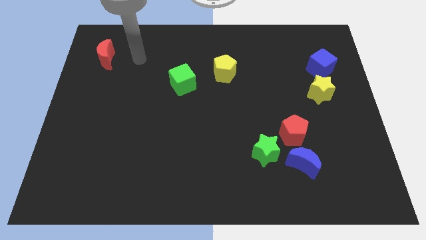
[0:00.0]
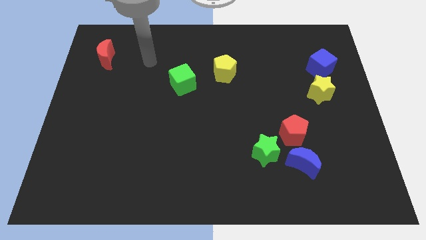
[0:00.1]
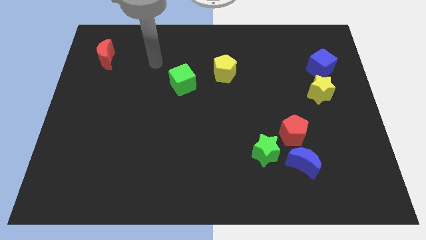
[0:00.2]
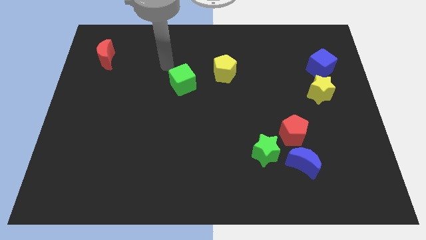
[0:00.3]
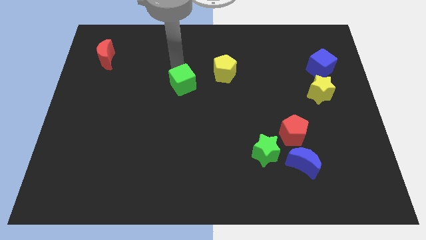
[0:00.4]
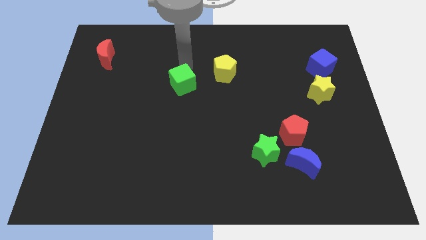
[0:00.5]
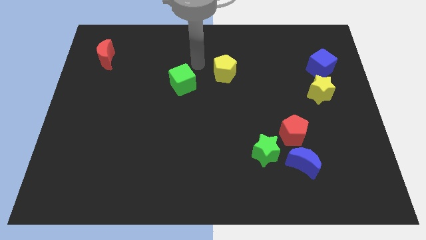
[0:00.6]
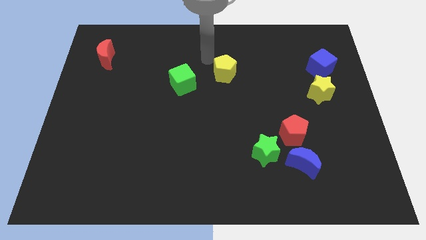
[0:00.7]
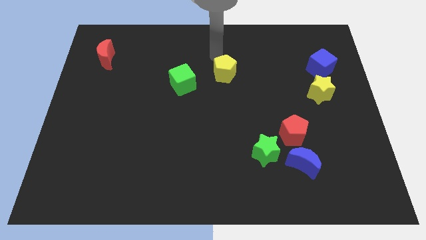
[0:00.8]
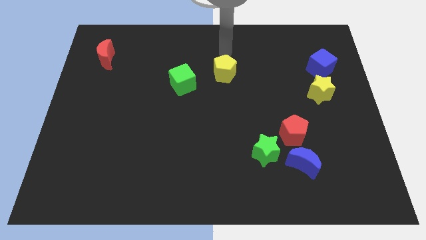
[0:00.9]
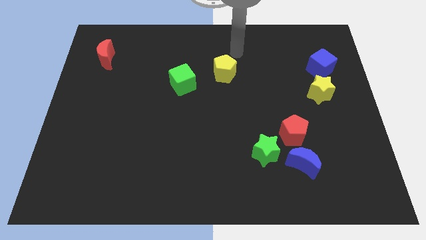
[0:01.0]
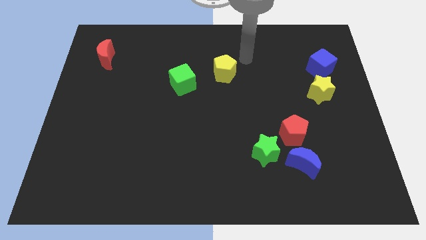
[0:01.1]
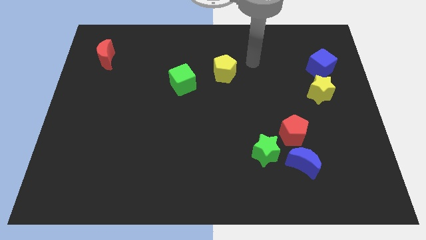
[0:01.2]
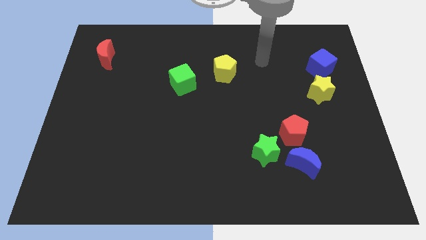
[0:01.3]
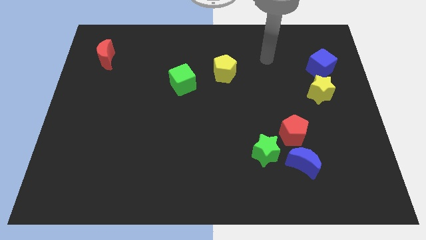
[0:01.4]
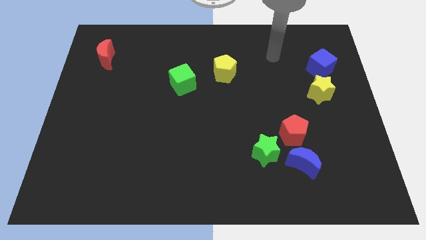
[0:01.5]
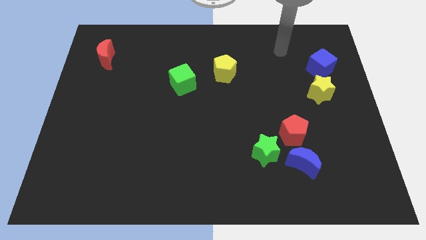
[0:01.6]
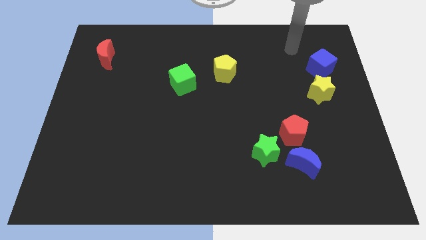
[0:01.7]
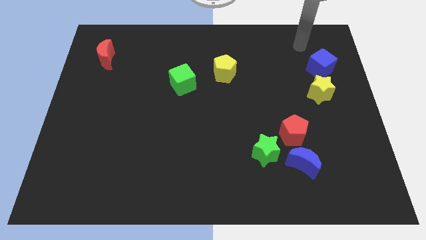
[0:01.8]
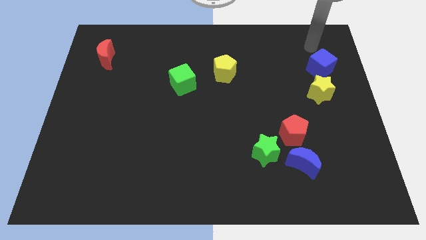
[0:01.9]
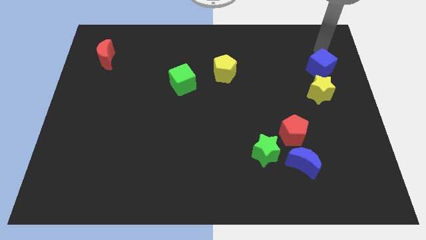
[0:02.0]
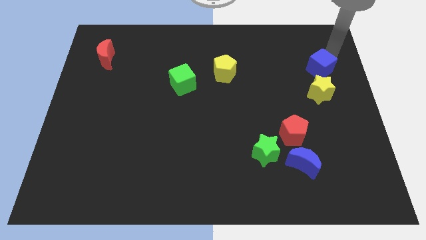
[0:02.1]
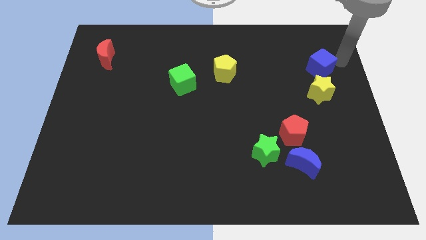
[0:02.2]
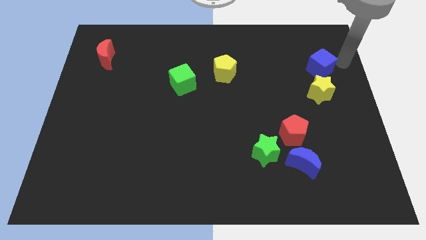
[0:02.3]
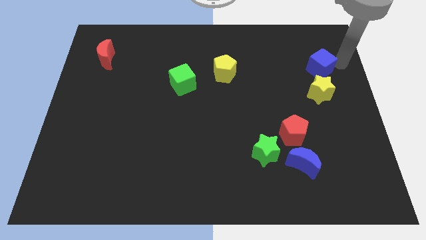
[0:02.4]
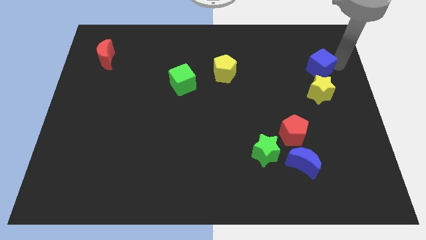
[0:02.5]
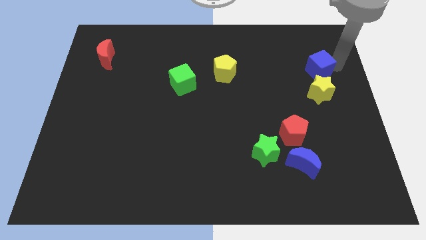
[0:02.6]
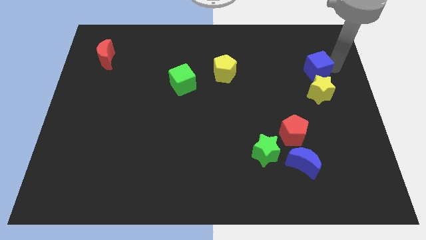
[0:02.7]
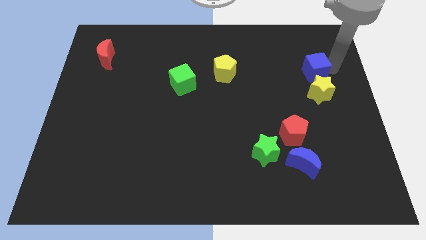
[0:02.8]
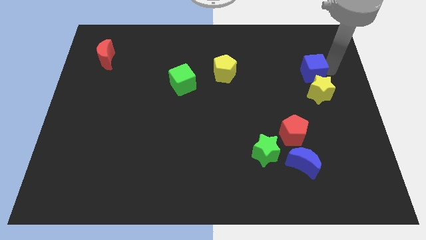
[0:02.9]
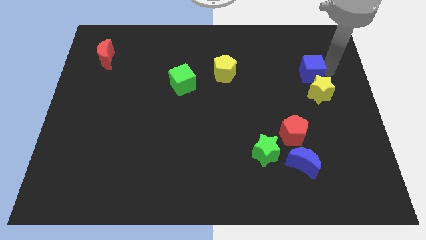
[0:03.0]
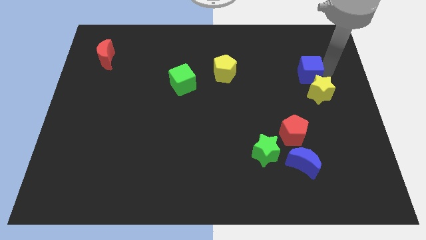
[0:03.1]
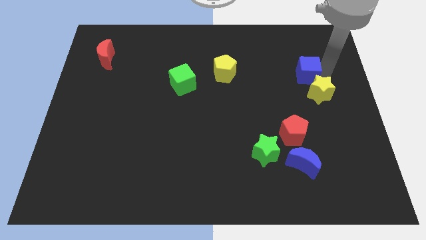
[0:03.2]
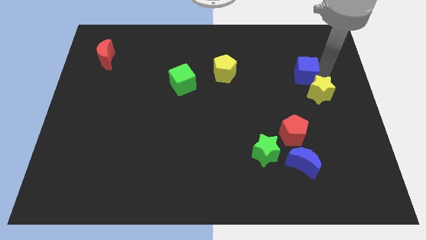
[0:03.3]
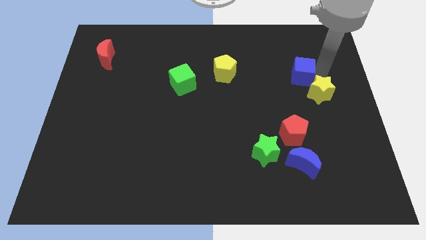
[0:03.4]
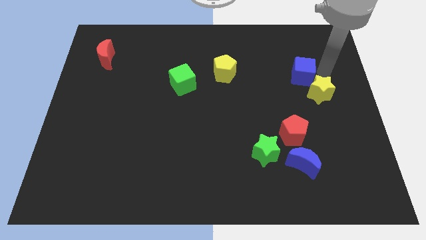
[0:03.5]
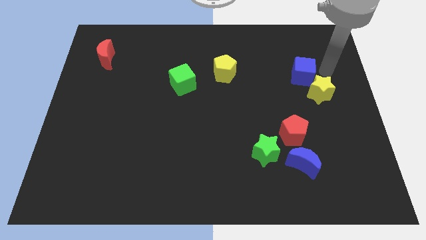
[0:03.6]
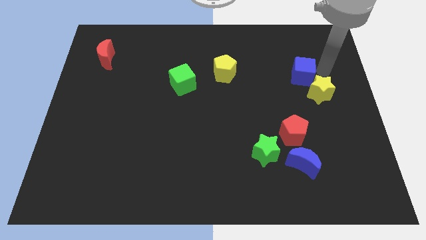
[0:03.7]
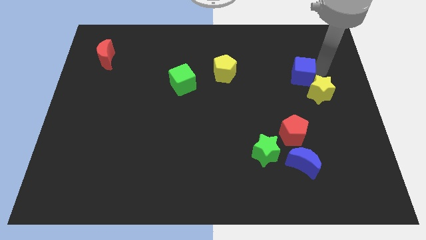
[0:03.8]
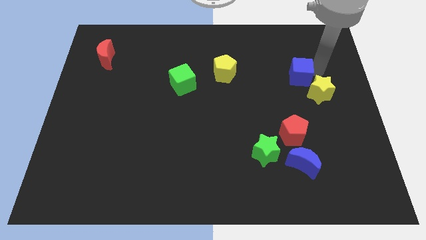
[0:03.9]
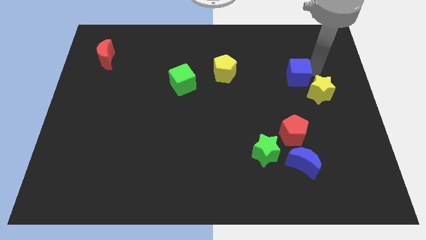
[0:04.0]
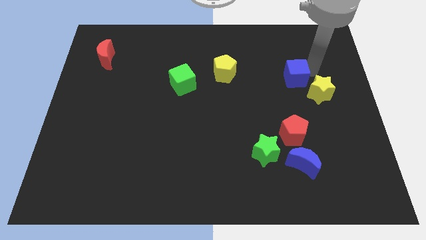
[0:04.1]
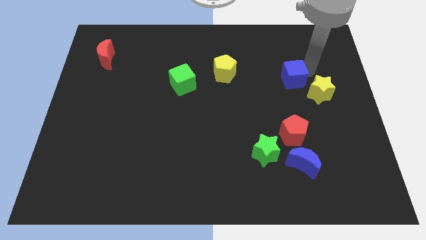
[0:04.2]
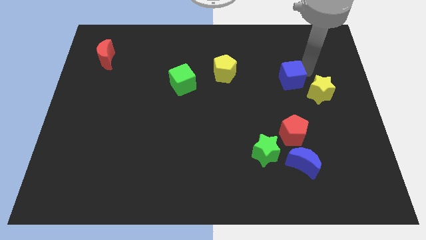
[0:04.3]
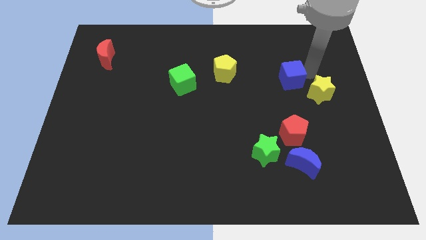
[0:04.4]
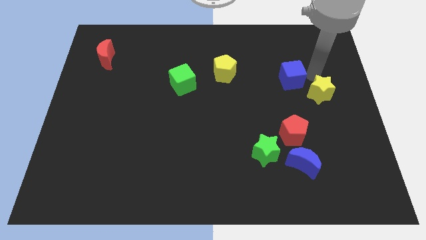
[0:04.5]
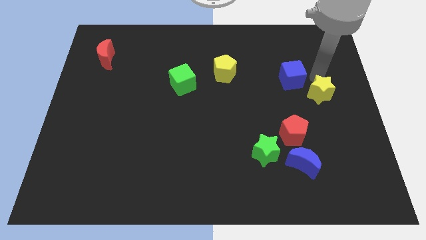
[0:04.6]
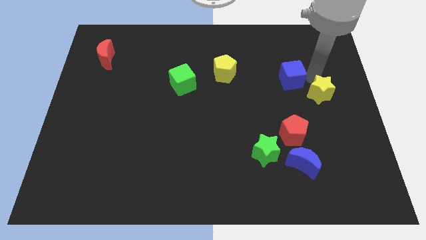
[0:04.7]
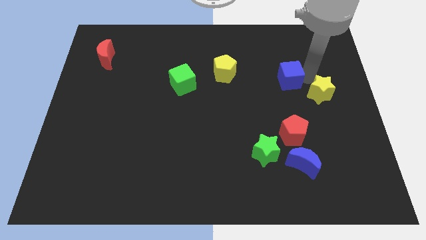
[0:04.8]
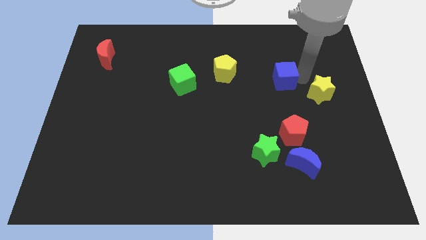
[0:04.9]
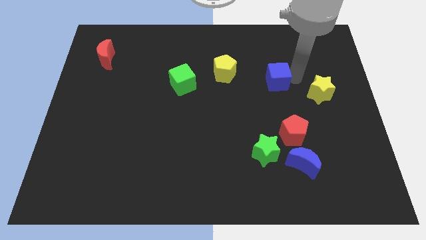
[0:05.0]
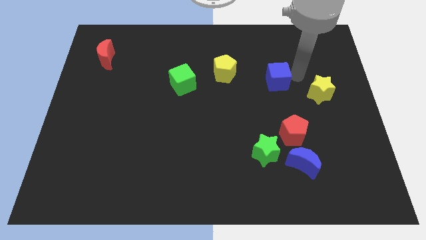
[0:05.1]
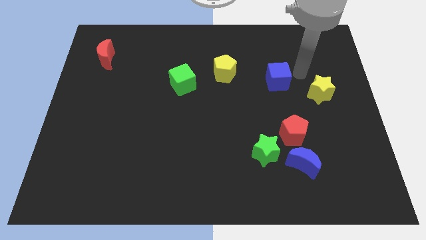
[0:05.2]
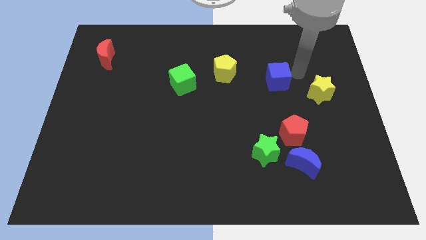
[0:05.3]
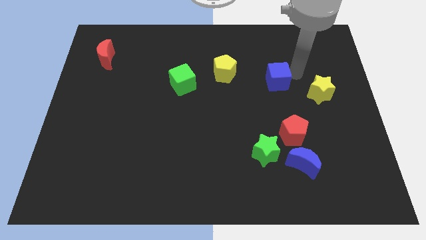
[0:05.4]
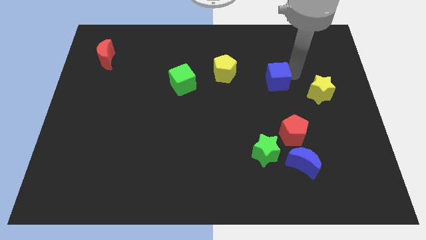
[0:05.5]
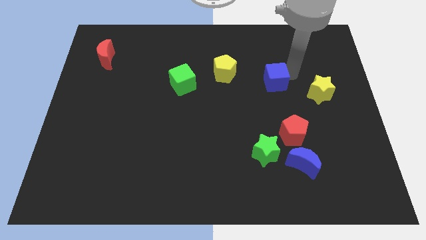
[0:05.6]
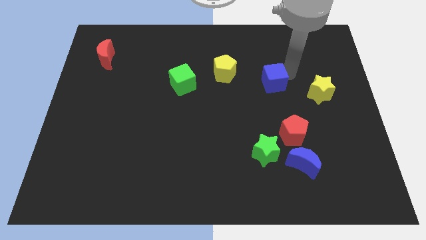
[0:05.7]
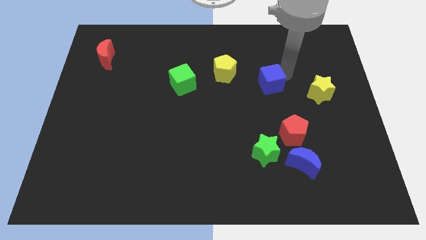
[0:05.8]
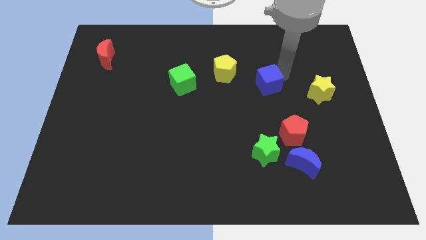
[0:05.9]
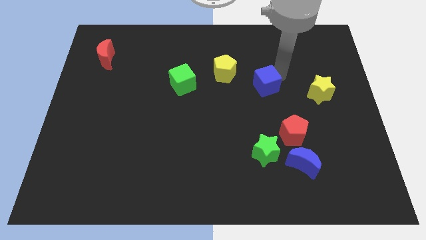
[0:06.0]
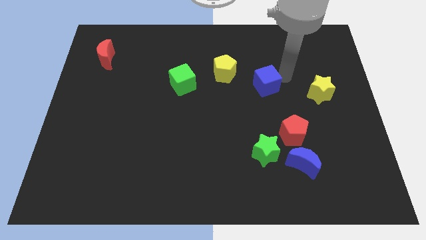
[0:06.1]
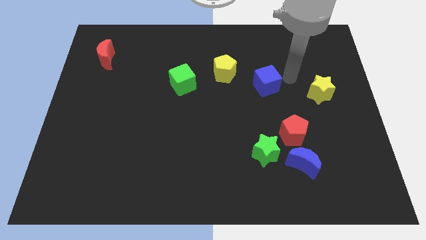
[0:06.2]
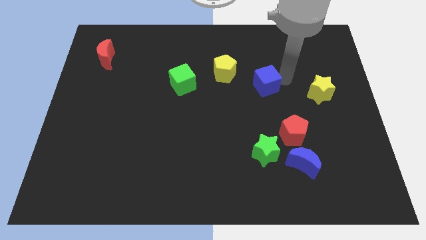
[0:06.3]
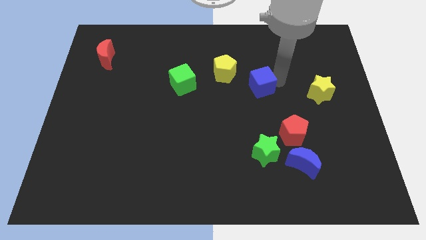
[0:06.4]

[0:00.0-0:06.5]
put the blue cube to the middle of the board

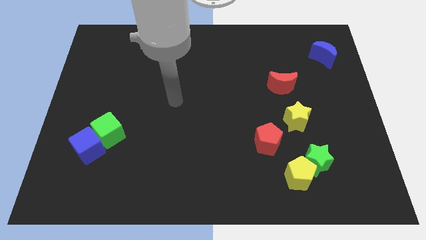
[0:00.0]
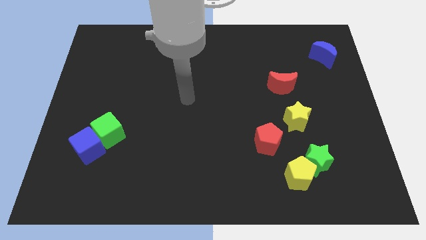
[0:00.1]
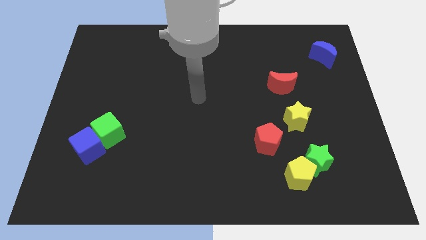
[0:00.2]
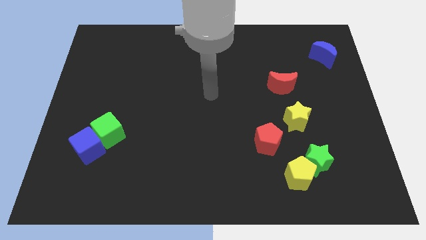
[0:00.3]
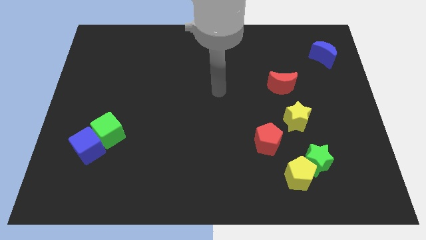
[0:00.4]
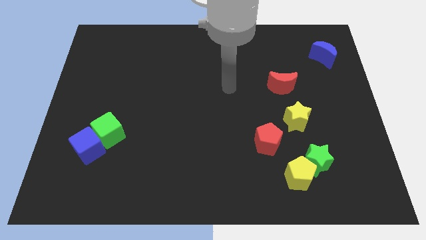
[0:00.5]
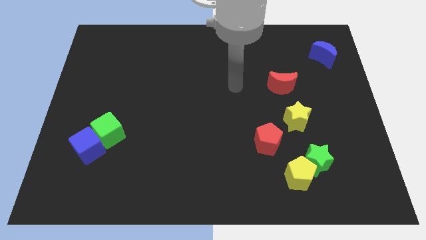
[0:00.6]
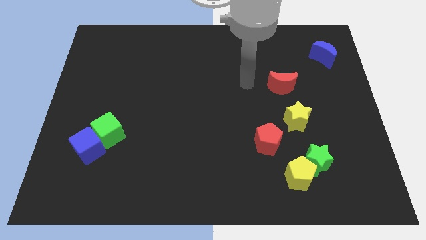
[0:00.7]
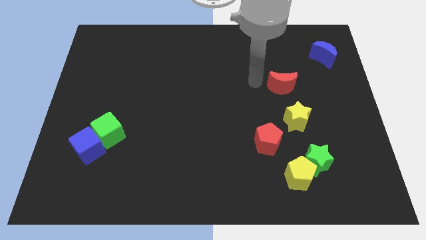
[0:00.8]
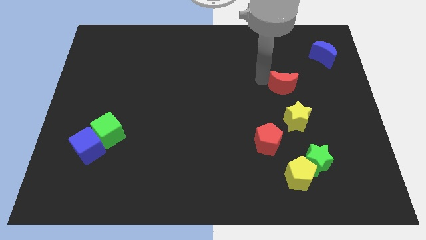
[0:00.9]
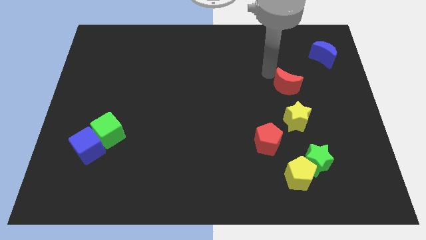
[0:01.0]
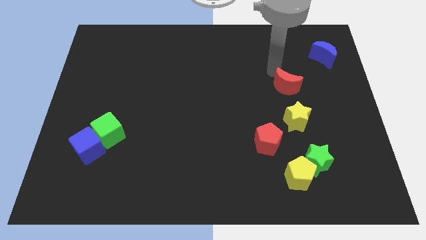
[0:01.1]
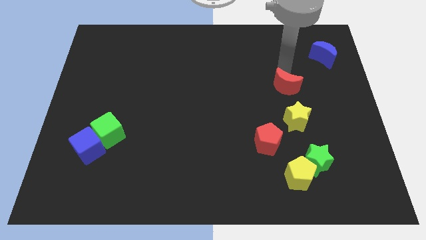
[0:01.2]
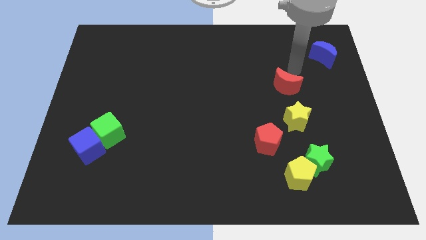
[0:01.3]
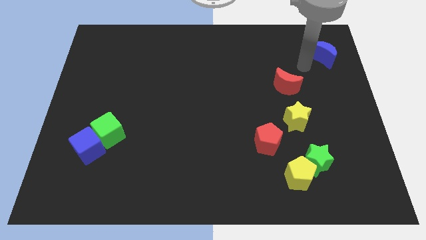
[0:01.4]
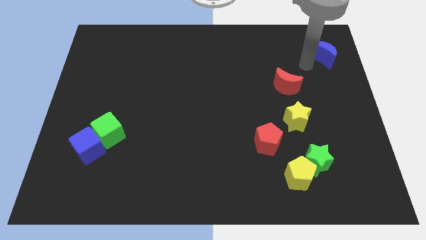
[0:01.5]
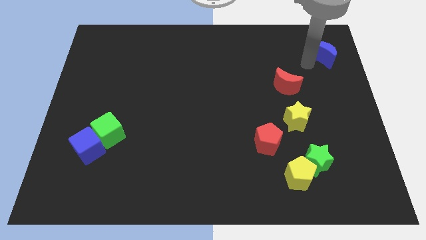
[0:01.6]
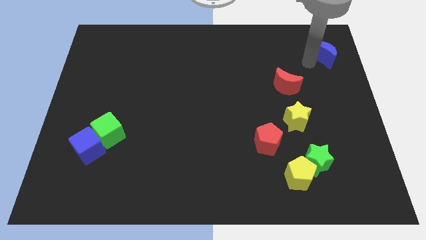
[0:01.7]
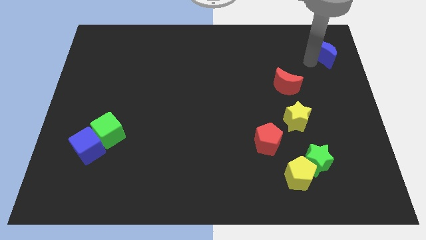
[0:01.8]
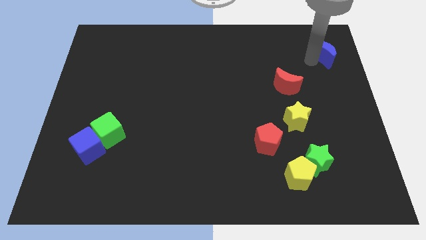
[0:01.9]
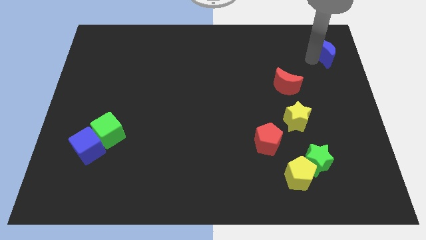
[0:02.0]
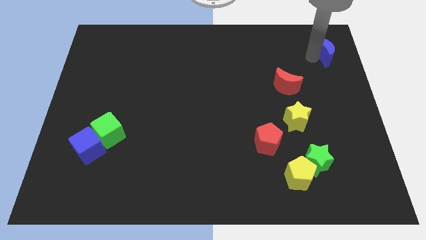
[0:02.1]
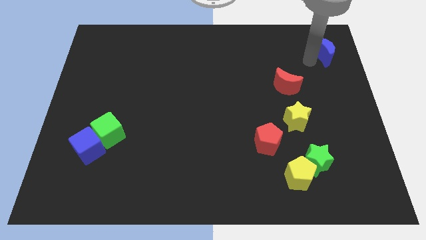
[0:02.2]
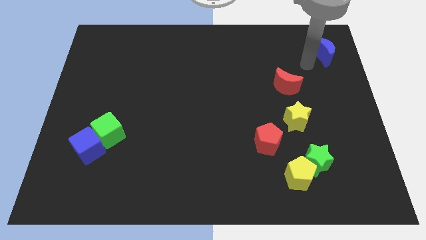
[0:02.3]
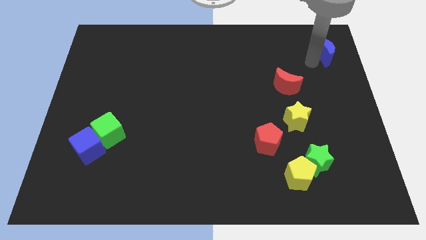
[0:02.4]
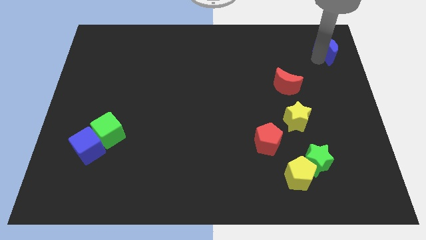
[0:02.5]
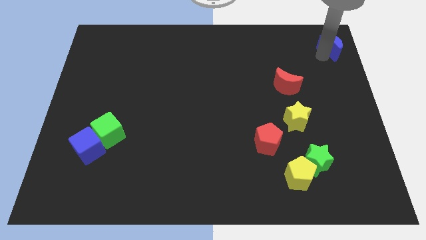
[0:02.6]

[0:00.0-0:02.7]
put the blue moon to the top right
